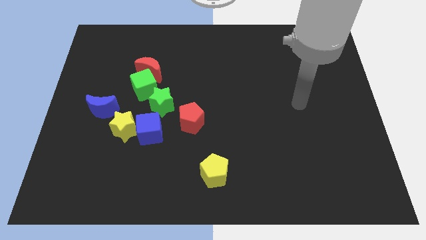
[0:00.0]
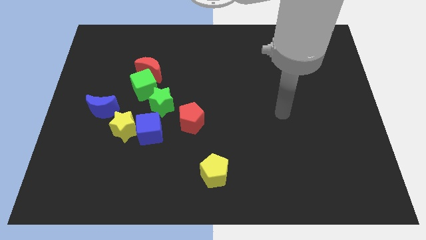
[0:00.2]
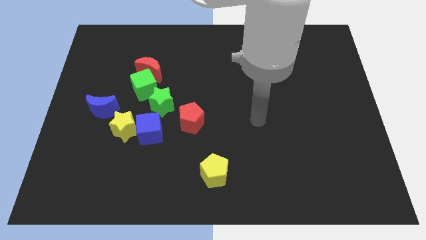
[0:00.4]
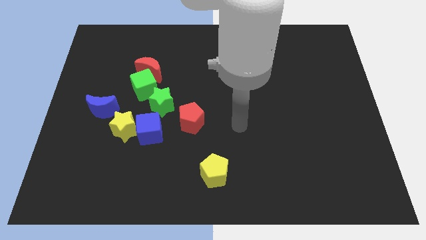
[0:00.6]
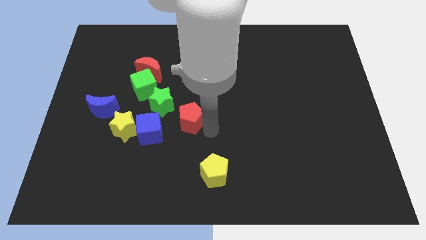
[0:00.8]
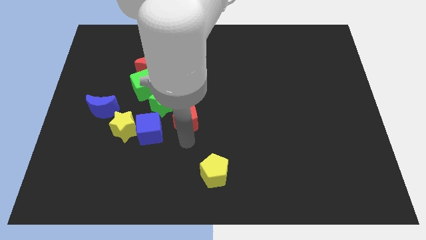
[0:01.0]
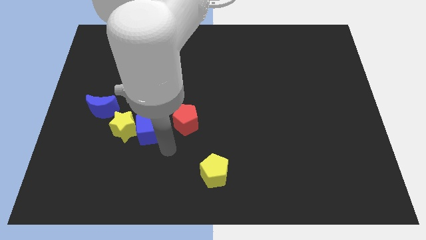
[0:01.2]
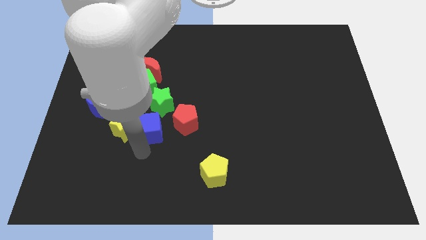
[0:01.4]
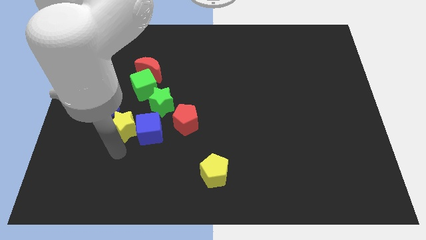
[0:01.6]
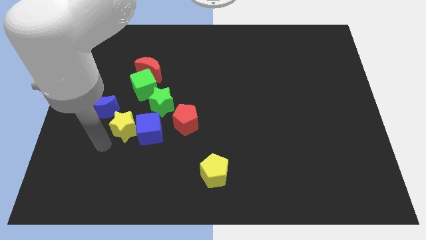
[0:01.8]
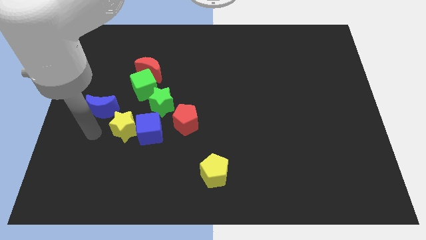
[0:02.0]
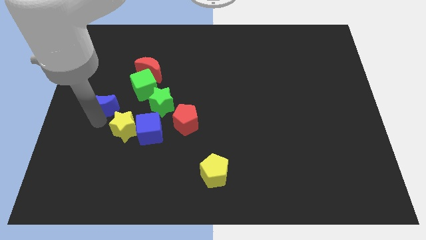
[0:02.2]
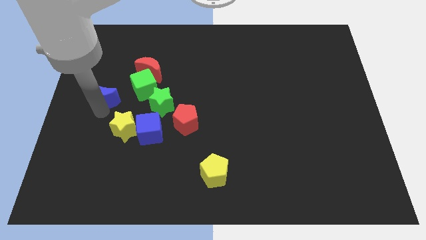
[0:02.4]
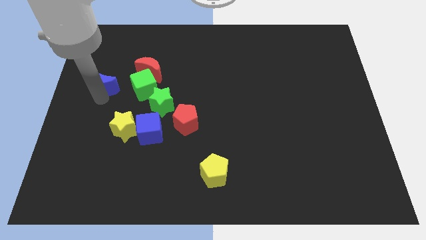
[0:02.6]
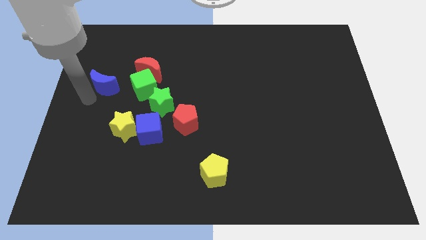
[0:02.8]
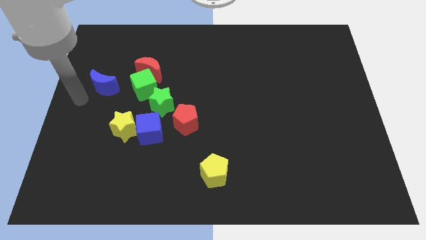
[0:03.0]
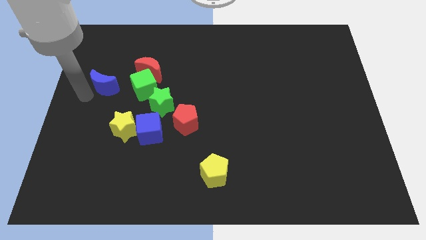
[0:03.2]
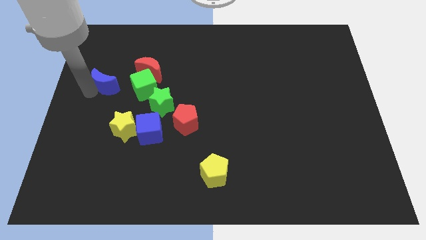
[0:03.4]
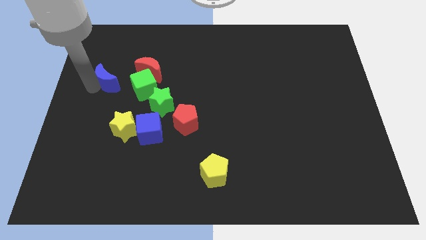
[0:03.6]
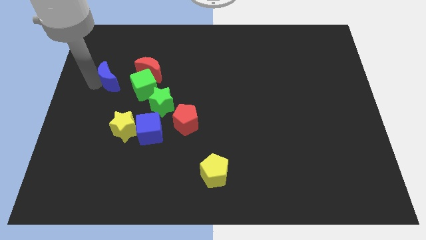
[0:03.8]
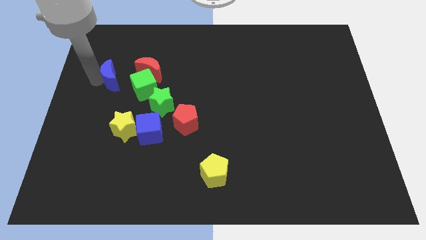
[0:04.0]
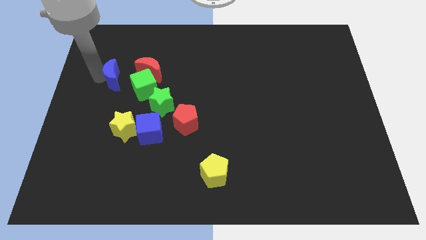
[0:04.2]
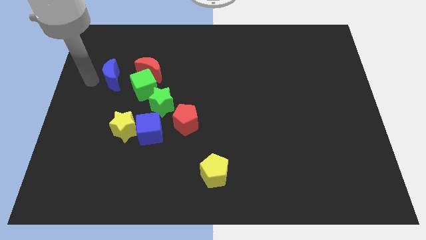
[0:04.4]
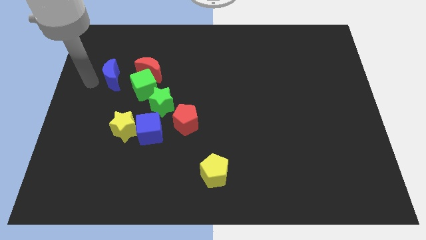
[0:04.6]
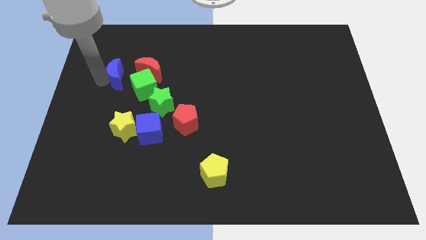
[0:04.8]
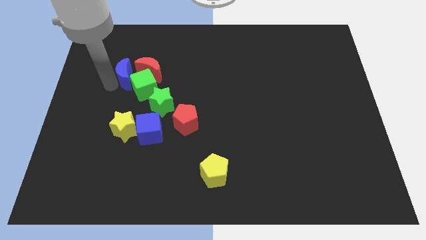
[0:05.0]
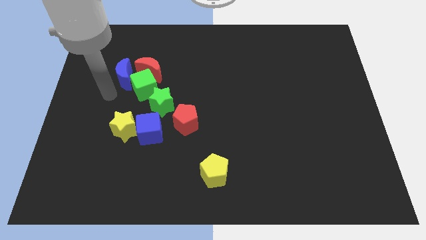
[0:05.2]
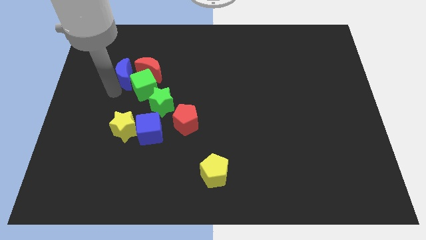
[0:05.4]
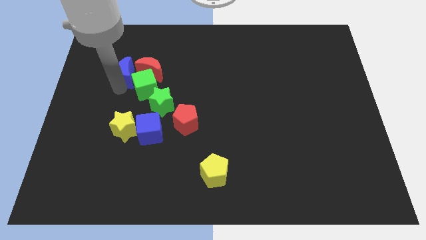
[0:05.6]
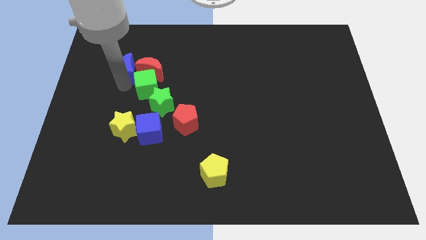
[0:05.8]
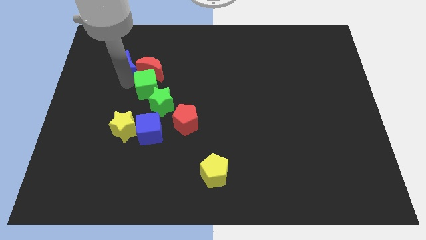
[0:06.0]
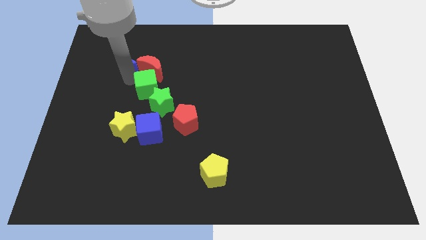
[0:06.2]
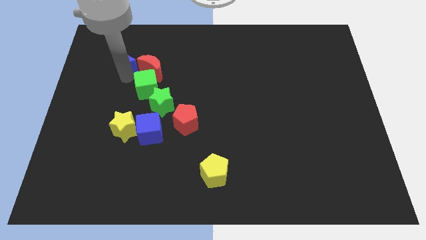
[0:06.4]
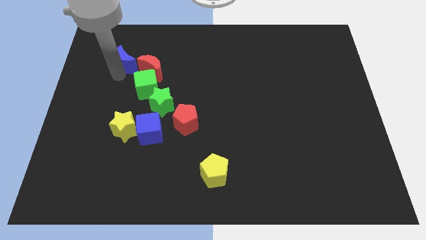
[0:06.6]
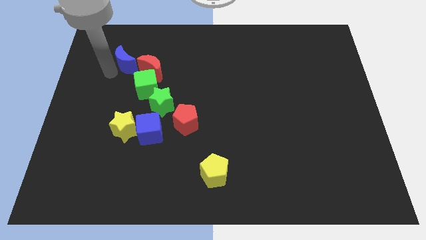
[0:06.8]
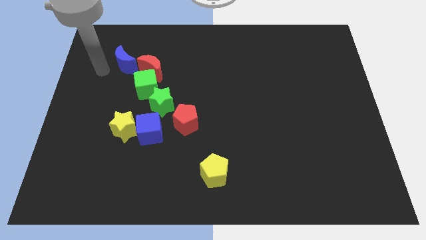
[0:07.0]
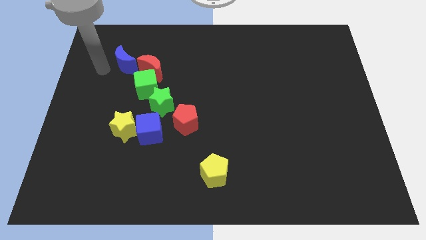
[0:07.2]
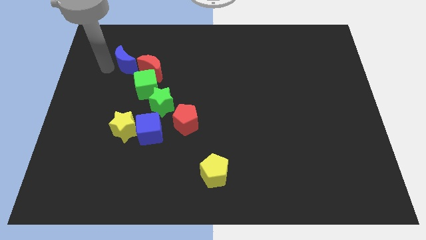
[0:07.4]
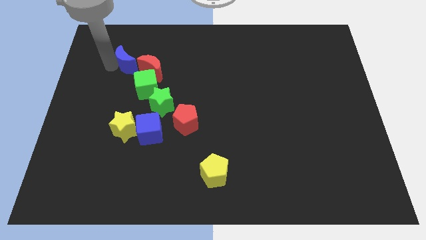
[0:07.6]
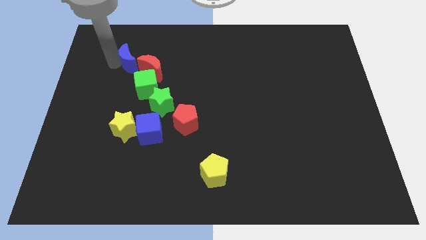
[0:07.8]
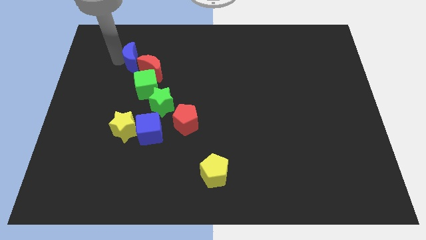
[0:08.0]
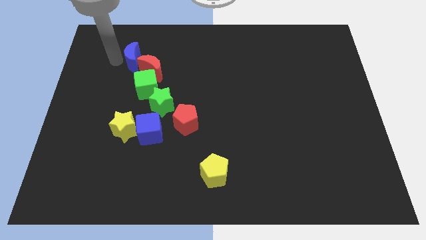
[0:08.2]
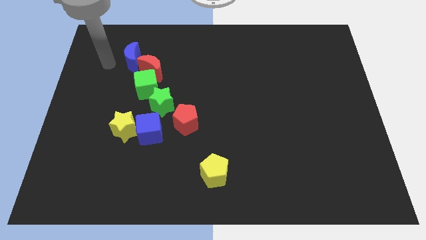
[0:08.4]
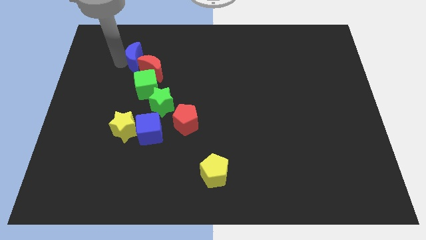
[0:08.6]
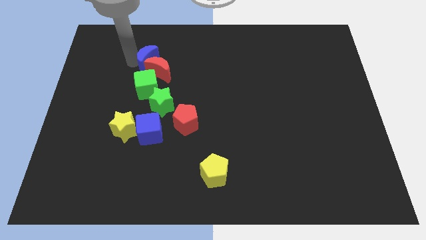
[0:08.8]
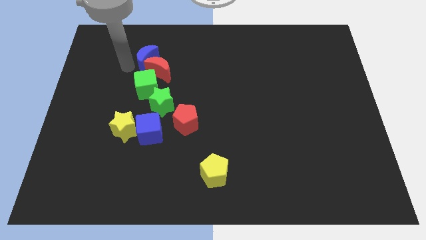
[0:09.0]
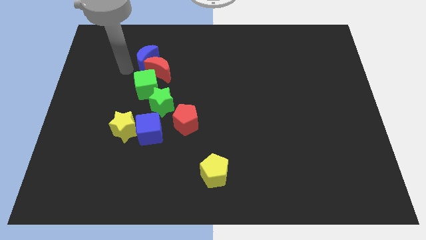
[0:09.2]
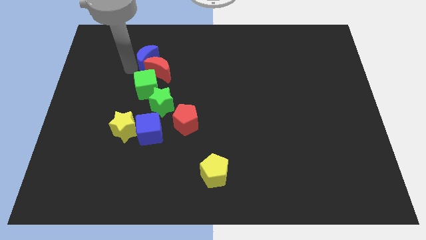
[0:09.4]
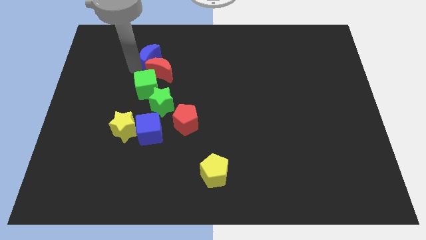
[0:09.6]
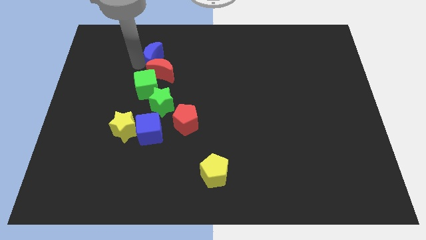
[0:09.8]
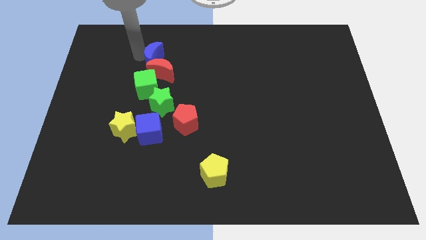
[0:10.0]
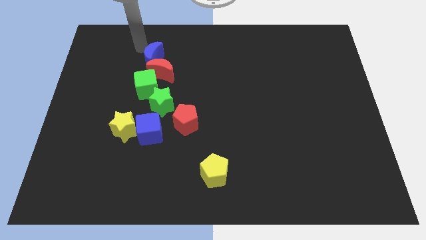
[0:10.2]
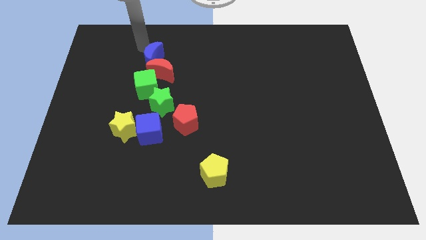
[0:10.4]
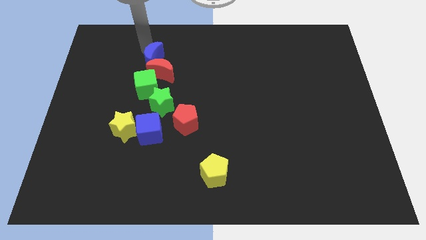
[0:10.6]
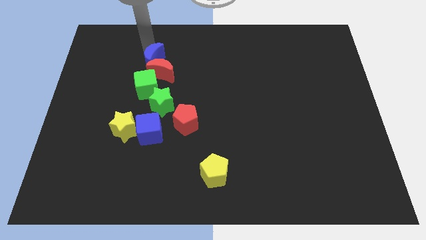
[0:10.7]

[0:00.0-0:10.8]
move the blue moon to the top side of the green star

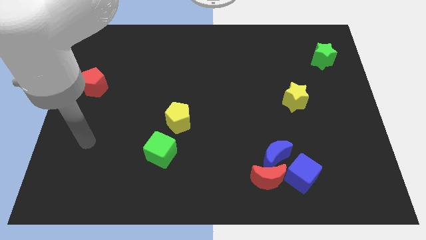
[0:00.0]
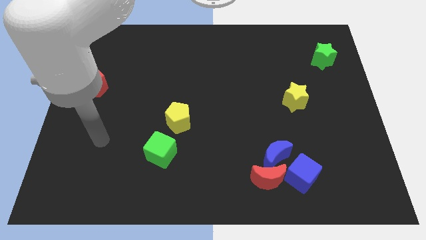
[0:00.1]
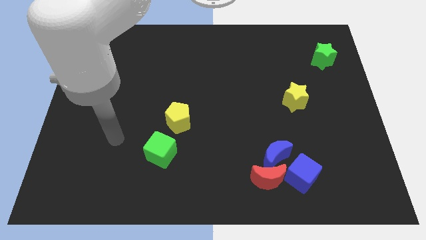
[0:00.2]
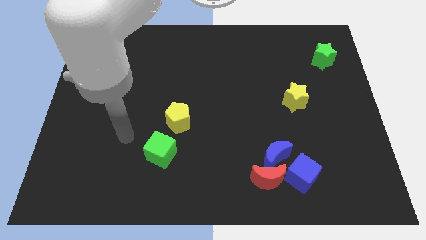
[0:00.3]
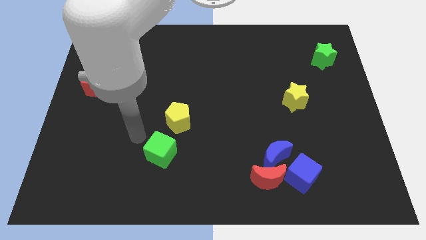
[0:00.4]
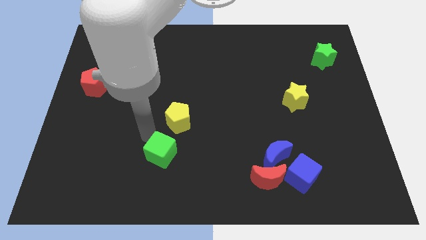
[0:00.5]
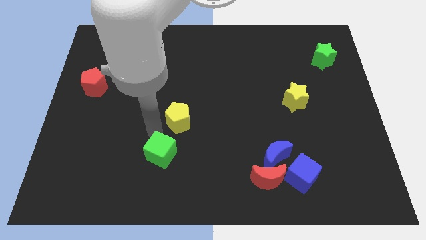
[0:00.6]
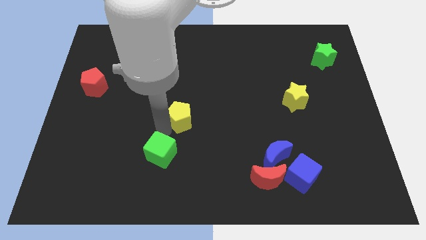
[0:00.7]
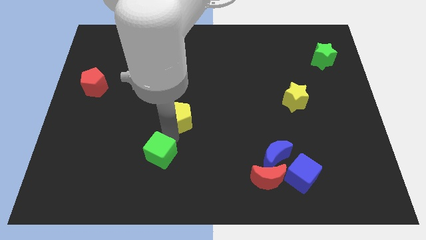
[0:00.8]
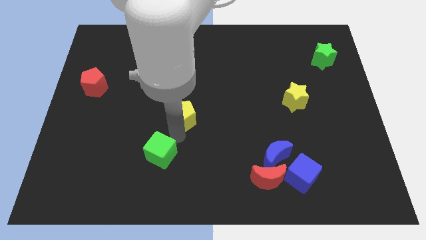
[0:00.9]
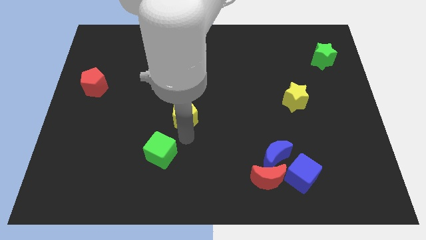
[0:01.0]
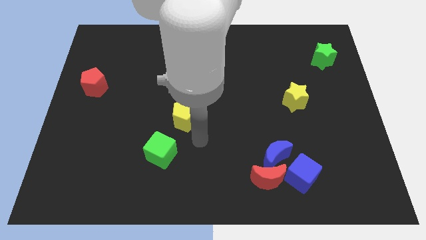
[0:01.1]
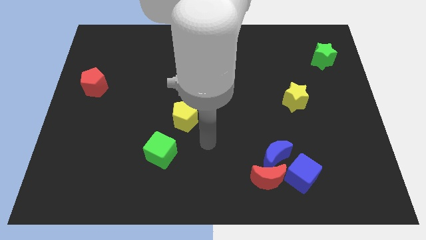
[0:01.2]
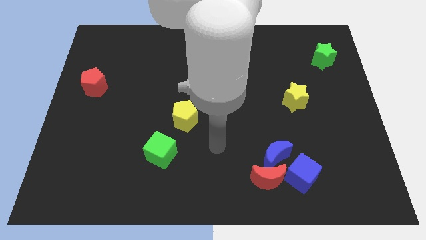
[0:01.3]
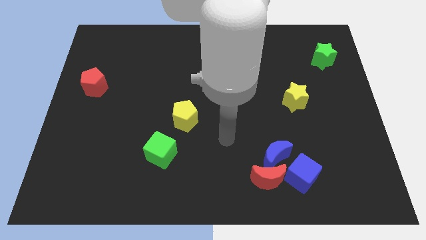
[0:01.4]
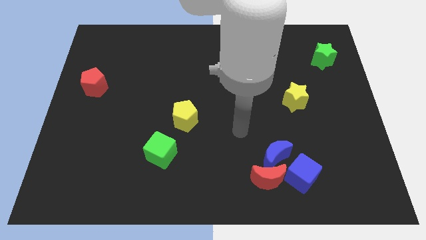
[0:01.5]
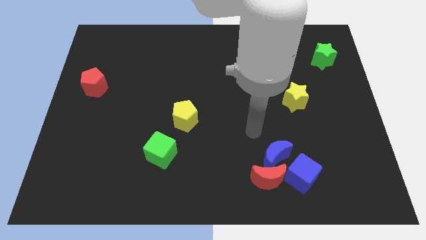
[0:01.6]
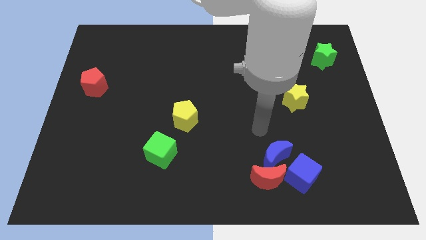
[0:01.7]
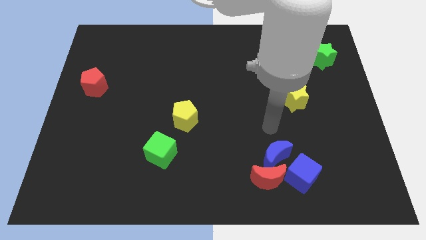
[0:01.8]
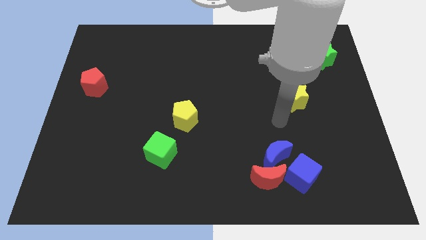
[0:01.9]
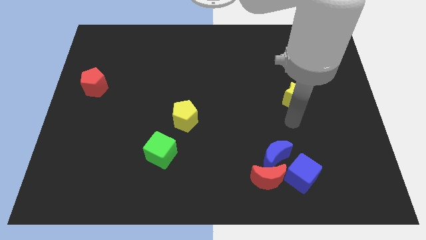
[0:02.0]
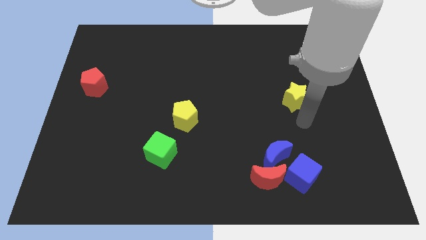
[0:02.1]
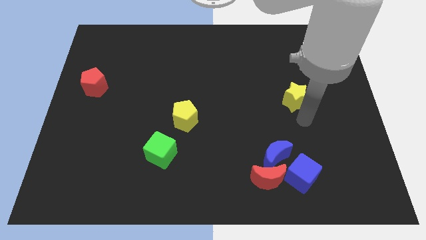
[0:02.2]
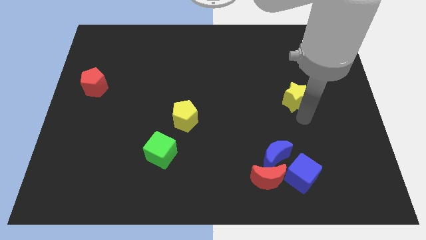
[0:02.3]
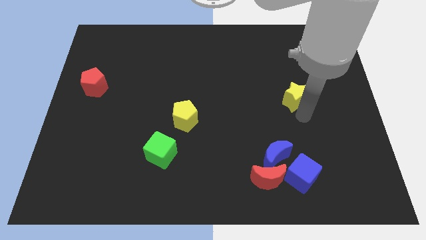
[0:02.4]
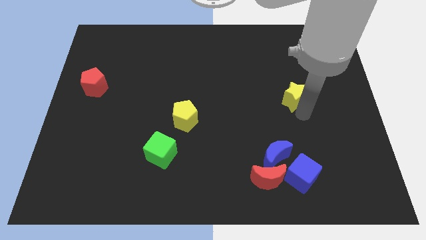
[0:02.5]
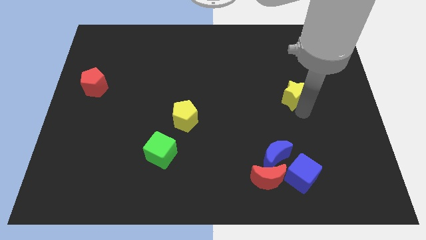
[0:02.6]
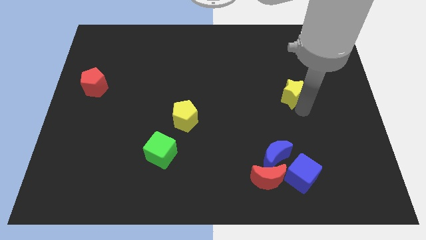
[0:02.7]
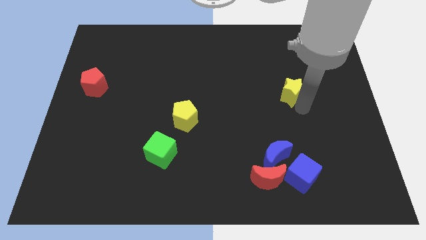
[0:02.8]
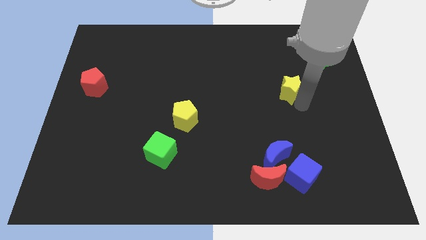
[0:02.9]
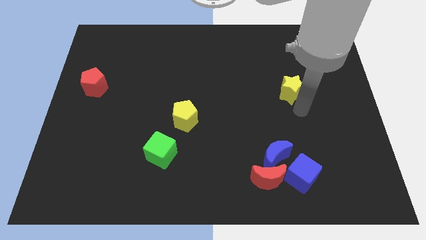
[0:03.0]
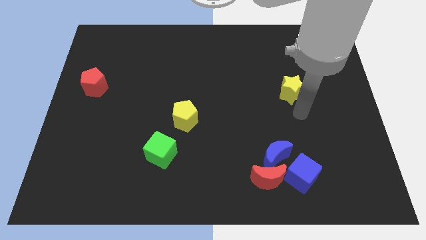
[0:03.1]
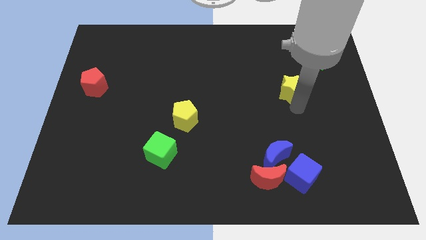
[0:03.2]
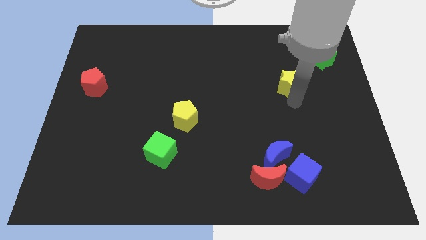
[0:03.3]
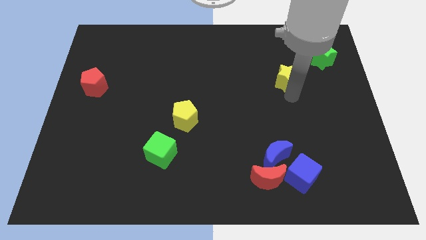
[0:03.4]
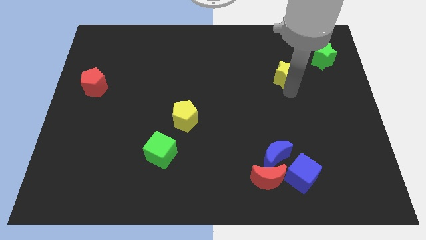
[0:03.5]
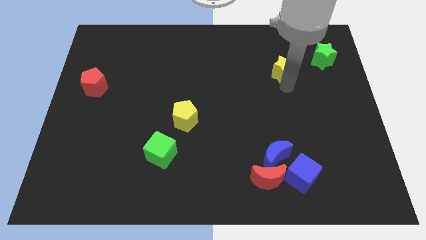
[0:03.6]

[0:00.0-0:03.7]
slide the yellow star just left of the green star
